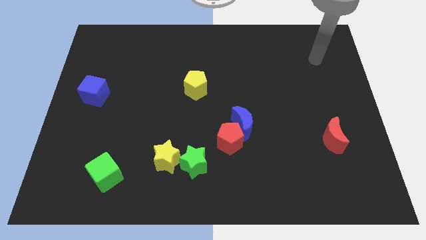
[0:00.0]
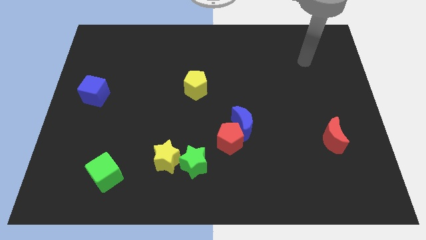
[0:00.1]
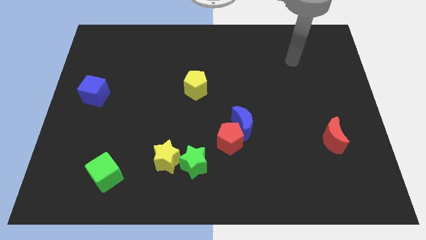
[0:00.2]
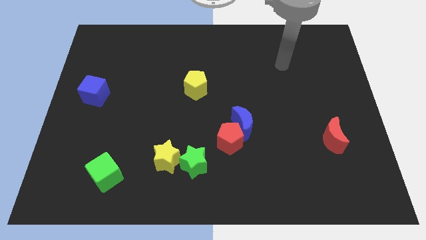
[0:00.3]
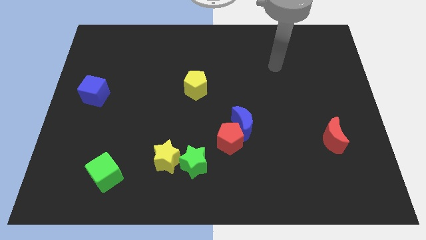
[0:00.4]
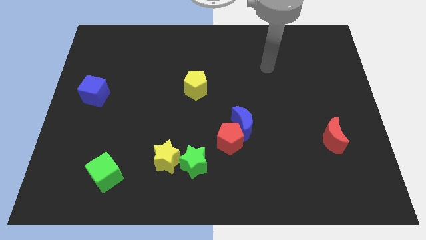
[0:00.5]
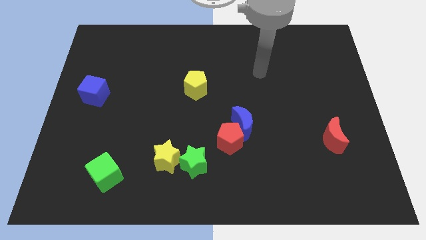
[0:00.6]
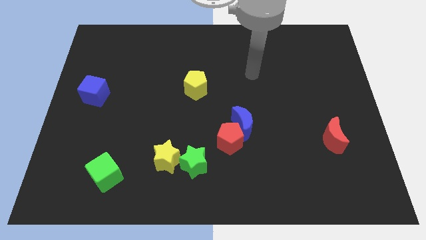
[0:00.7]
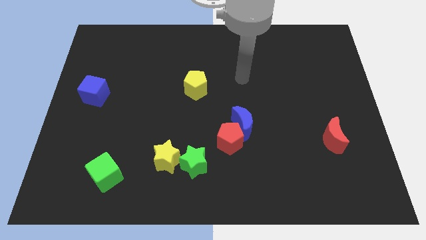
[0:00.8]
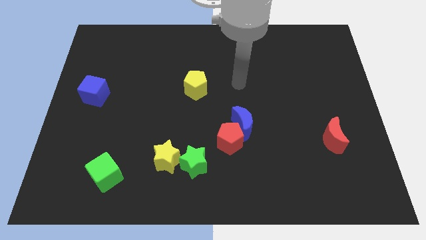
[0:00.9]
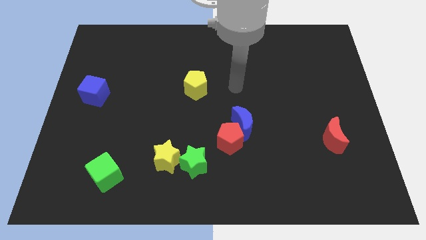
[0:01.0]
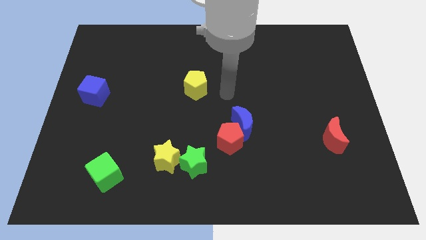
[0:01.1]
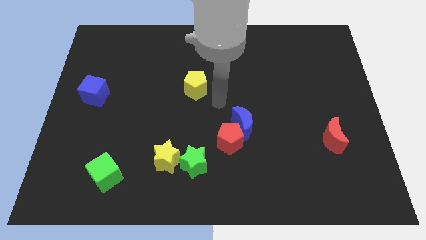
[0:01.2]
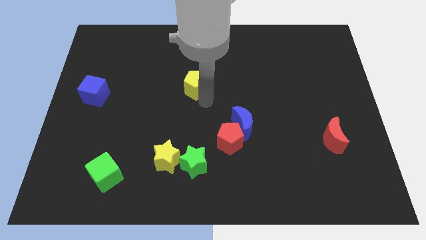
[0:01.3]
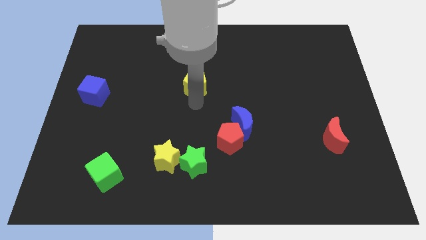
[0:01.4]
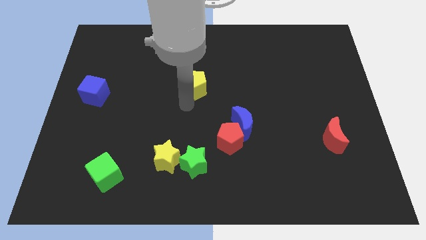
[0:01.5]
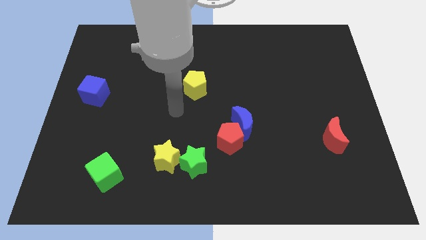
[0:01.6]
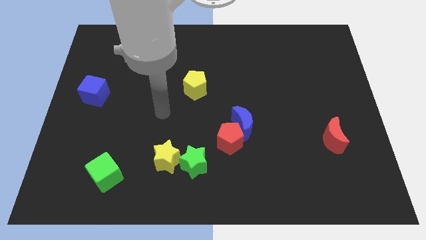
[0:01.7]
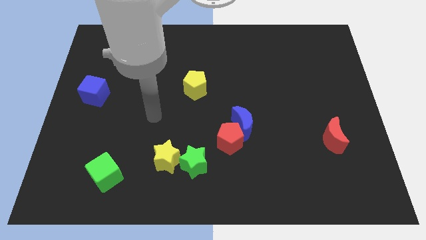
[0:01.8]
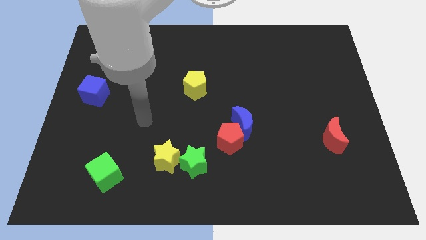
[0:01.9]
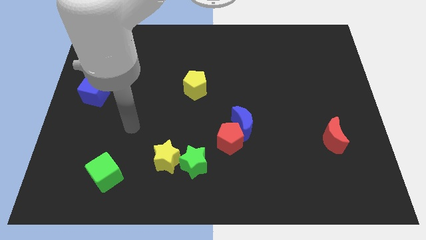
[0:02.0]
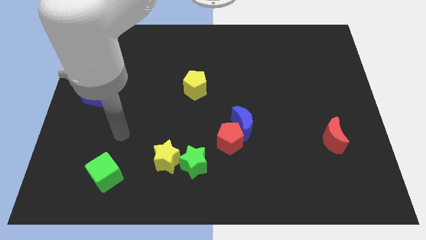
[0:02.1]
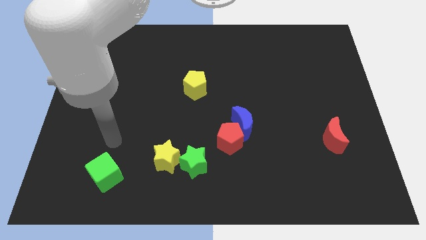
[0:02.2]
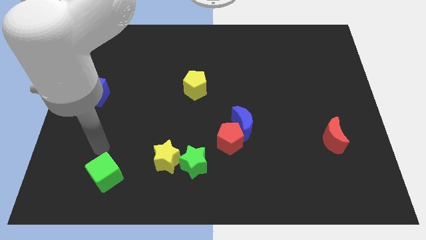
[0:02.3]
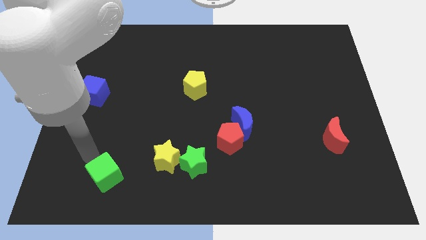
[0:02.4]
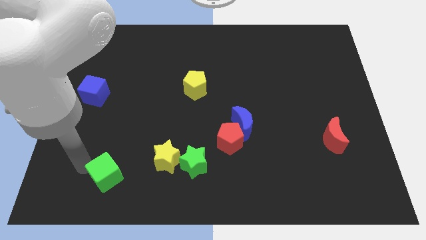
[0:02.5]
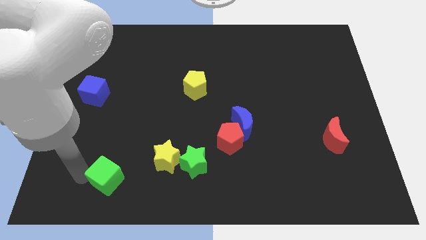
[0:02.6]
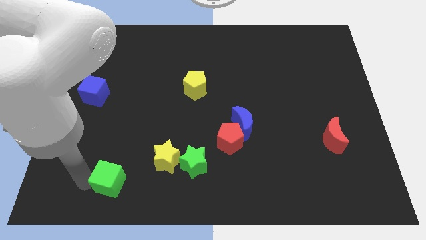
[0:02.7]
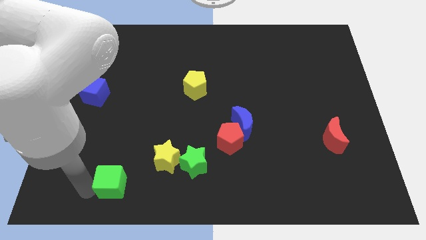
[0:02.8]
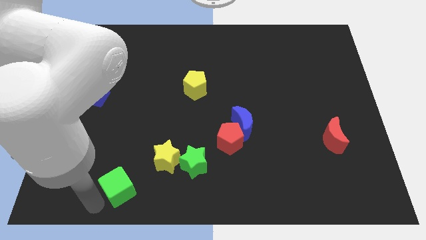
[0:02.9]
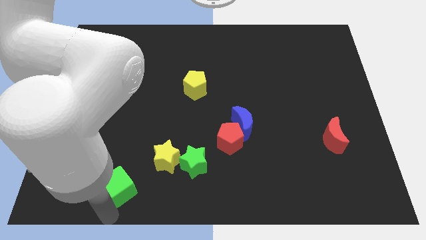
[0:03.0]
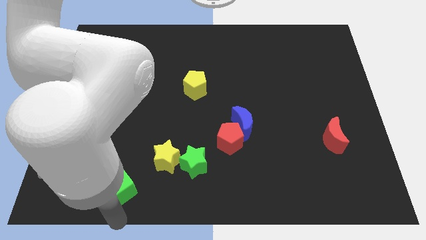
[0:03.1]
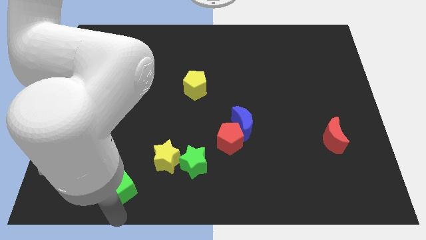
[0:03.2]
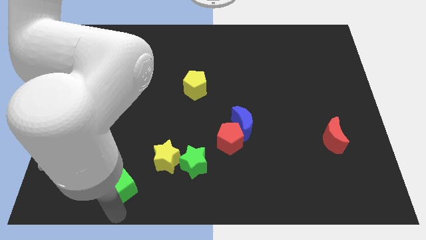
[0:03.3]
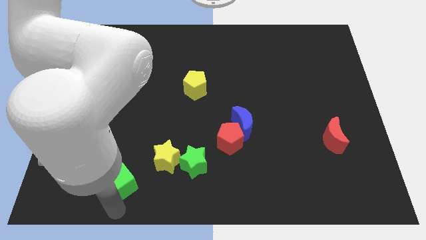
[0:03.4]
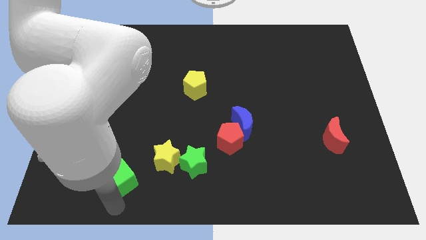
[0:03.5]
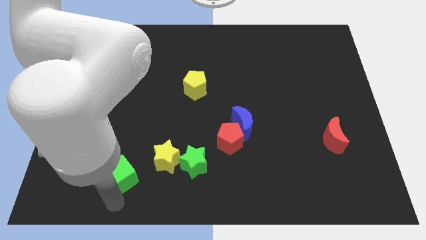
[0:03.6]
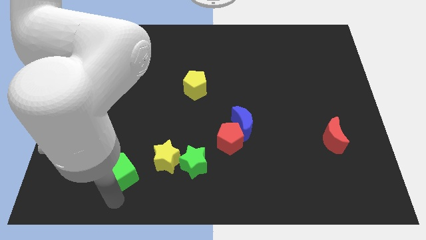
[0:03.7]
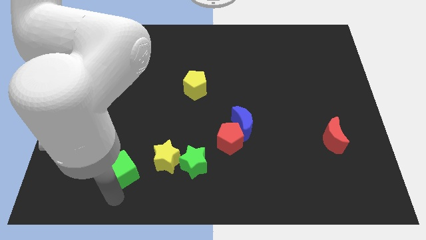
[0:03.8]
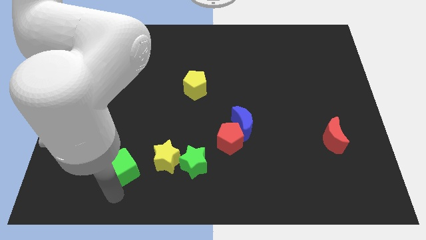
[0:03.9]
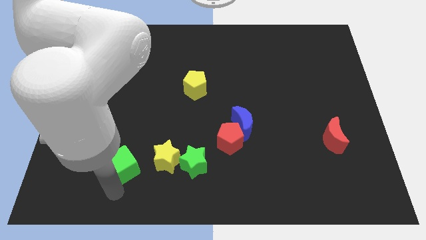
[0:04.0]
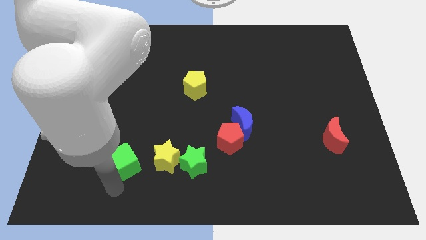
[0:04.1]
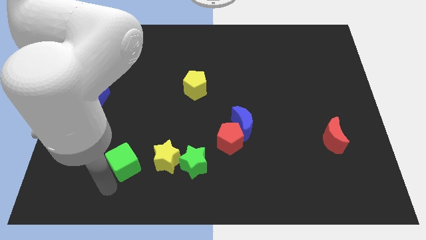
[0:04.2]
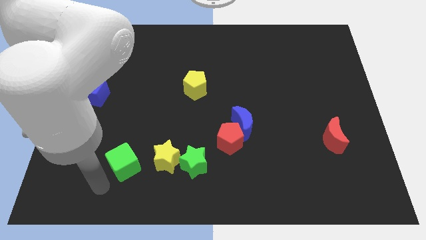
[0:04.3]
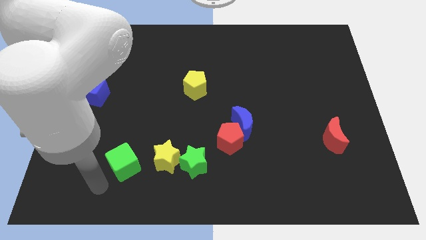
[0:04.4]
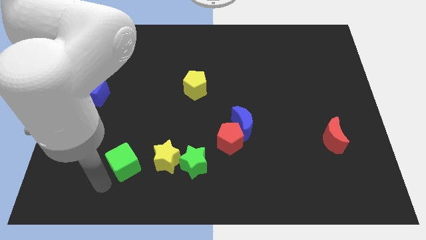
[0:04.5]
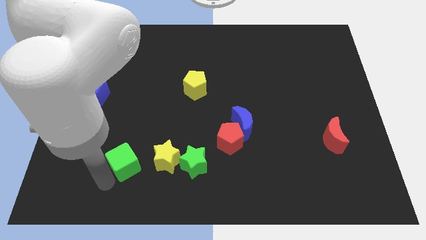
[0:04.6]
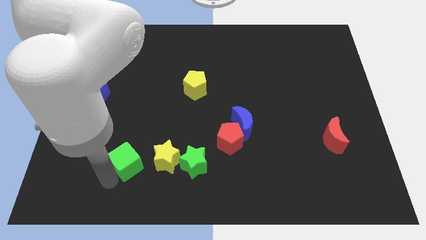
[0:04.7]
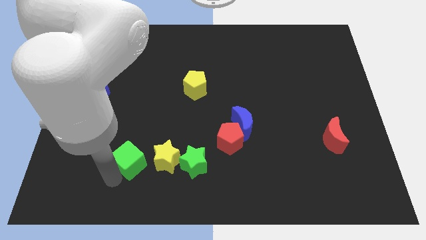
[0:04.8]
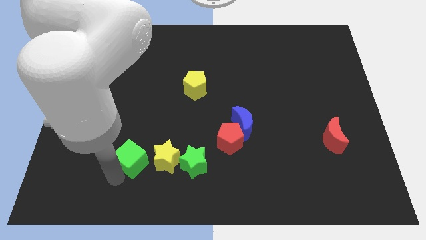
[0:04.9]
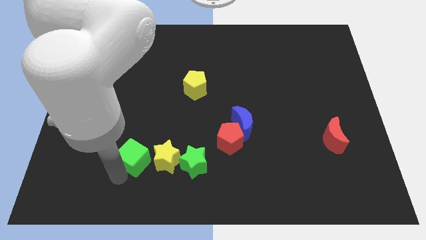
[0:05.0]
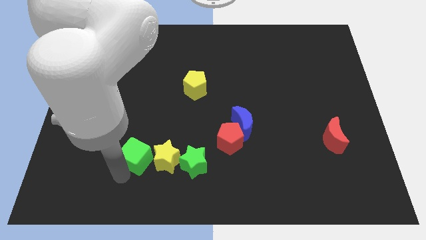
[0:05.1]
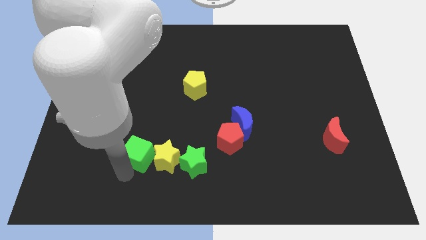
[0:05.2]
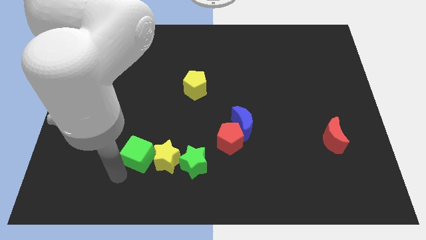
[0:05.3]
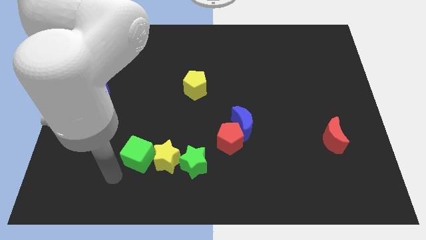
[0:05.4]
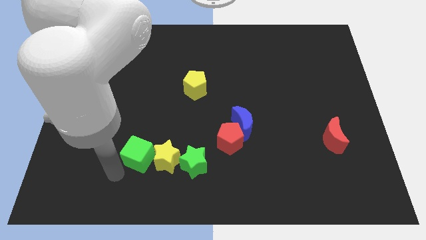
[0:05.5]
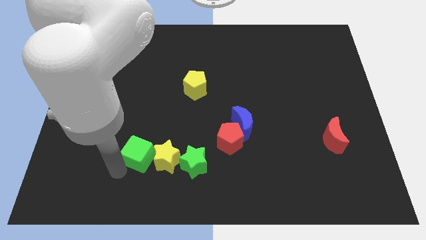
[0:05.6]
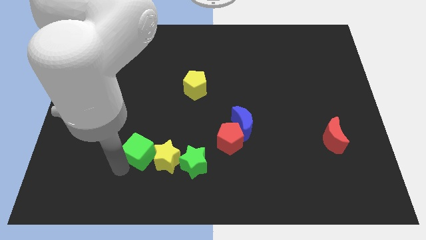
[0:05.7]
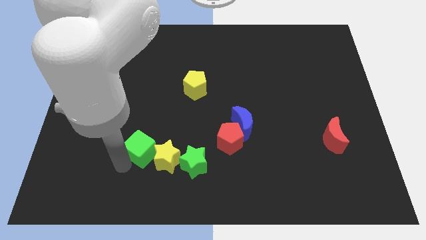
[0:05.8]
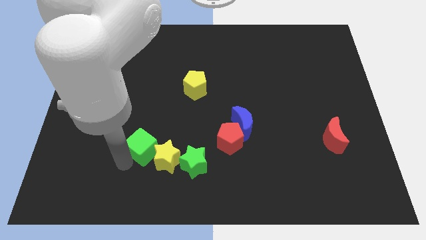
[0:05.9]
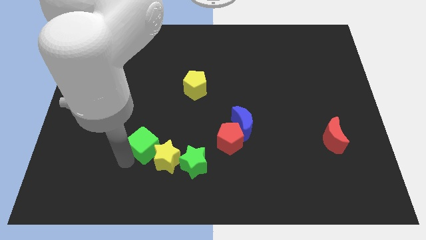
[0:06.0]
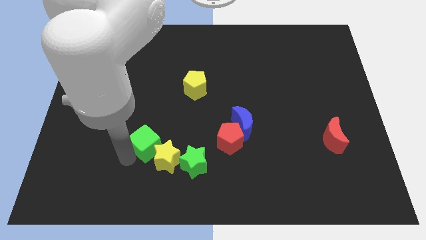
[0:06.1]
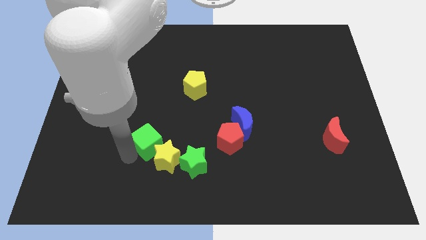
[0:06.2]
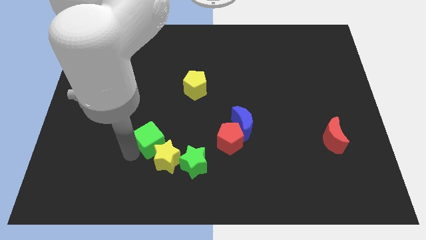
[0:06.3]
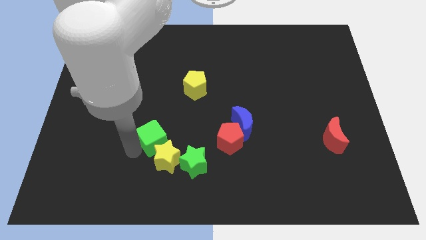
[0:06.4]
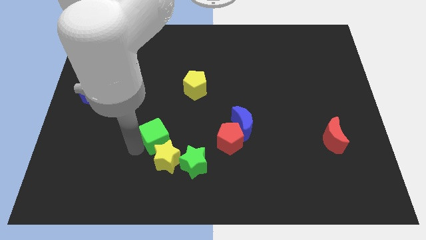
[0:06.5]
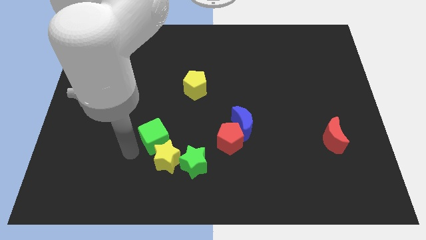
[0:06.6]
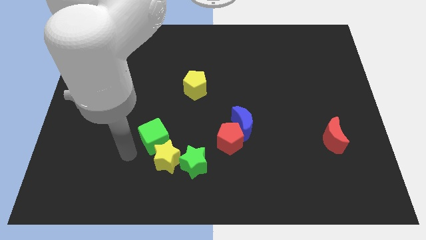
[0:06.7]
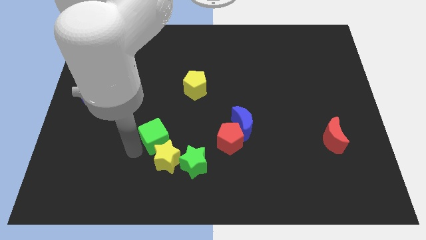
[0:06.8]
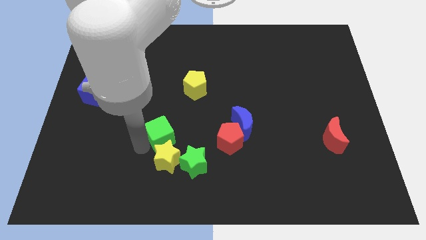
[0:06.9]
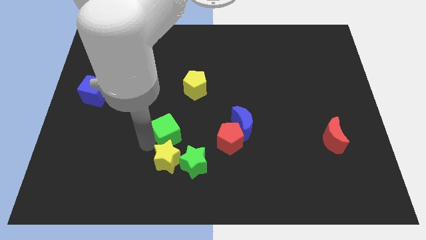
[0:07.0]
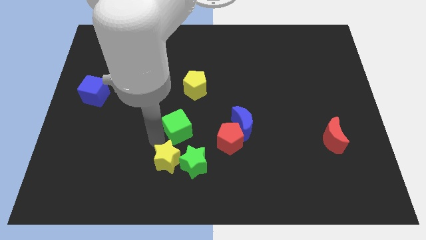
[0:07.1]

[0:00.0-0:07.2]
slide the green cube to the center
